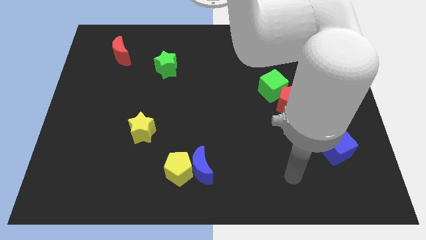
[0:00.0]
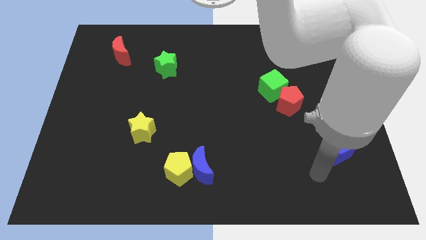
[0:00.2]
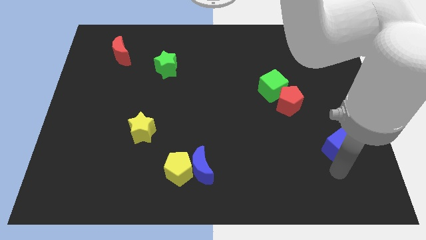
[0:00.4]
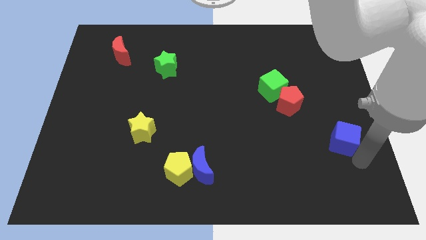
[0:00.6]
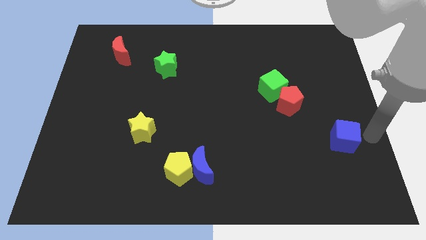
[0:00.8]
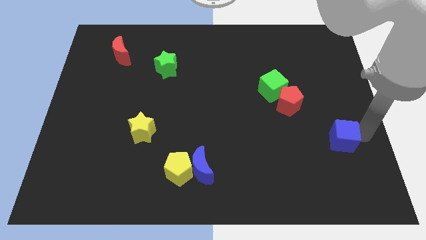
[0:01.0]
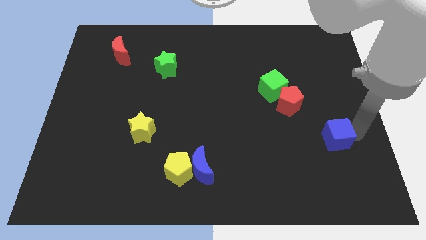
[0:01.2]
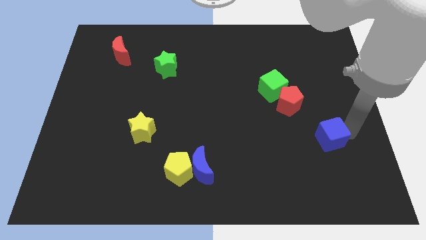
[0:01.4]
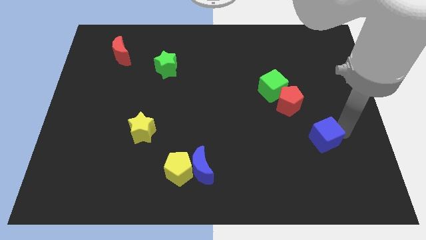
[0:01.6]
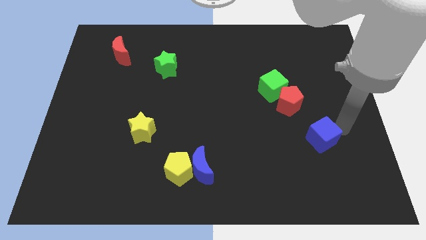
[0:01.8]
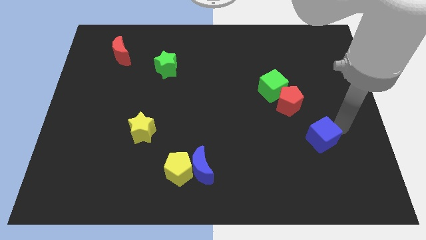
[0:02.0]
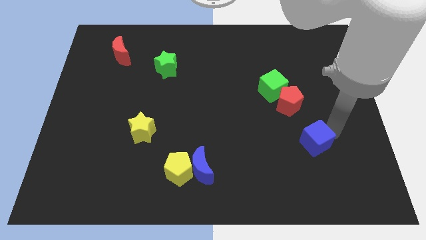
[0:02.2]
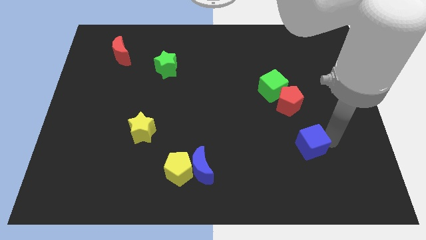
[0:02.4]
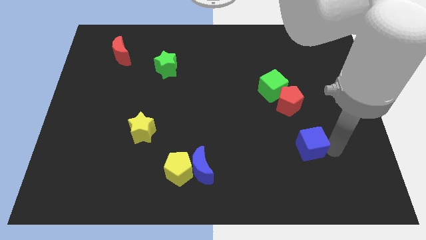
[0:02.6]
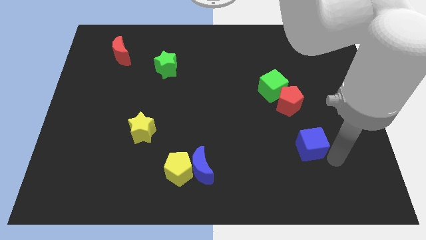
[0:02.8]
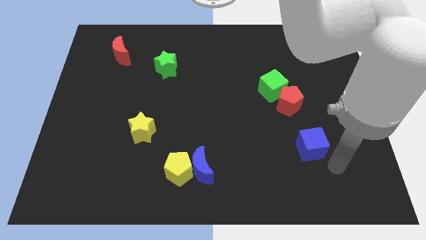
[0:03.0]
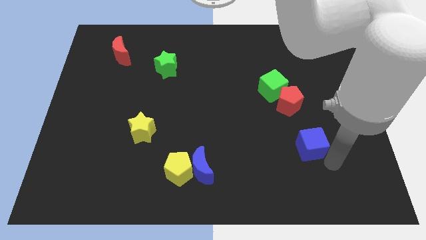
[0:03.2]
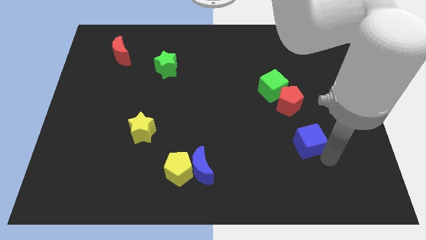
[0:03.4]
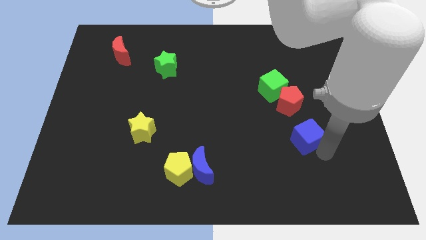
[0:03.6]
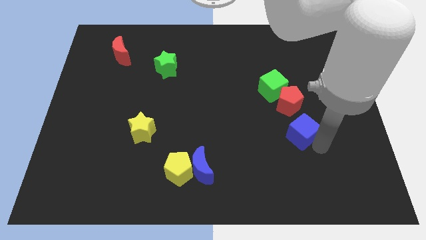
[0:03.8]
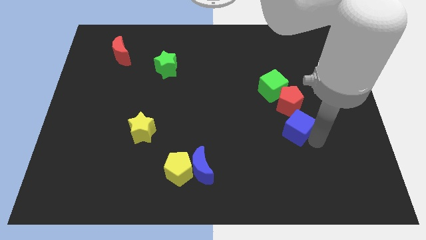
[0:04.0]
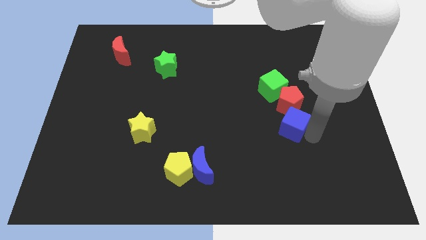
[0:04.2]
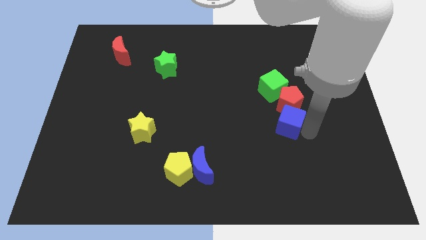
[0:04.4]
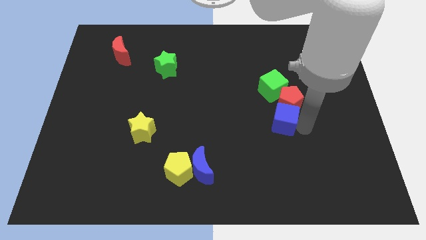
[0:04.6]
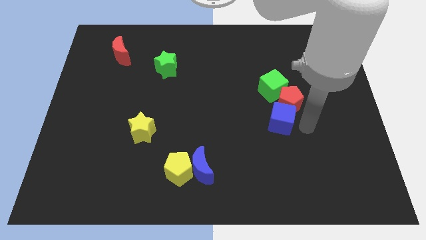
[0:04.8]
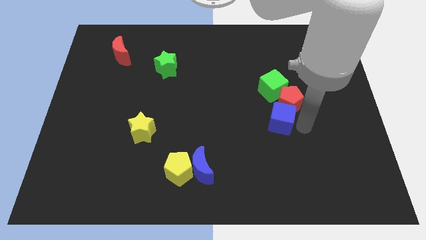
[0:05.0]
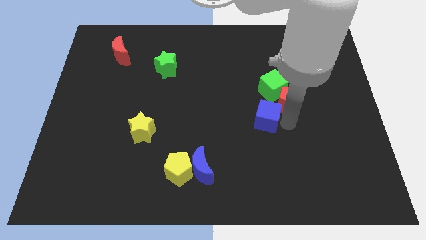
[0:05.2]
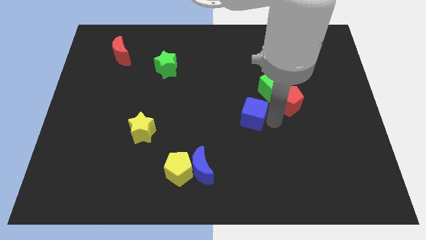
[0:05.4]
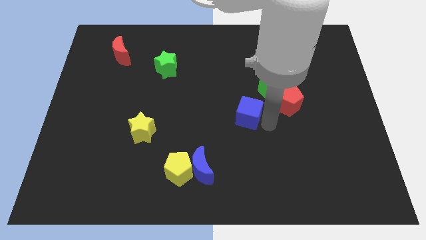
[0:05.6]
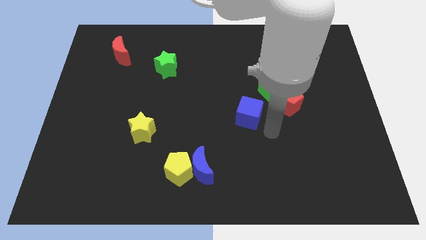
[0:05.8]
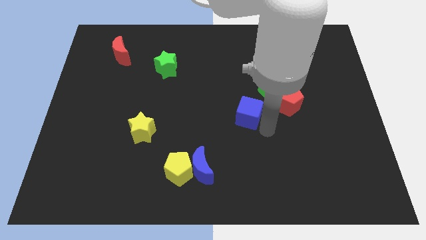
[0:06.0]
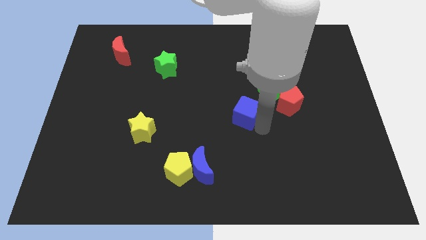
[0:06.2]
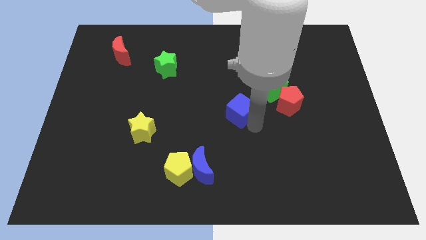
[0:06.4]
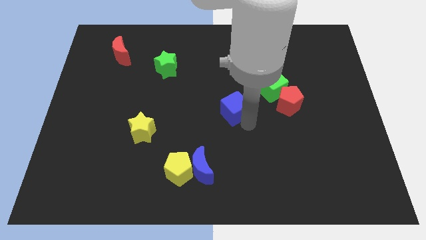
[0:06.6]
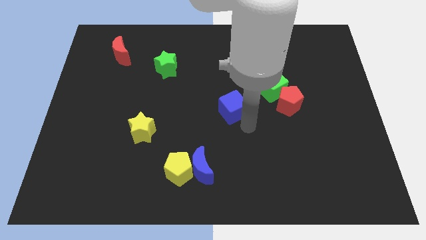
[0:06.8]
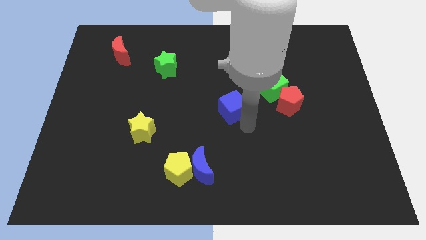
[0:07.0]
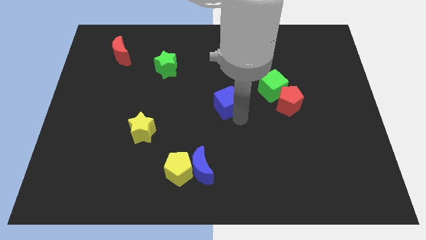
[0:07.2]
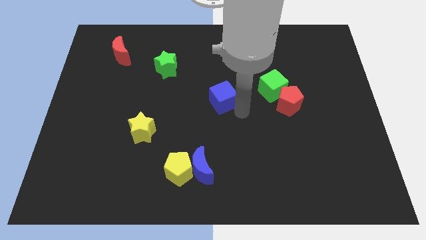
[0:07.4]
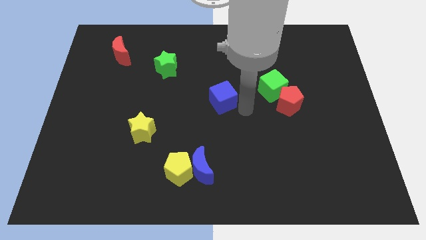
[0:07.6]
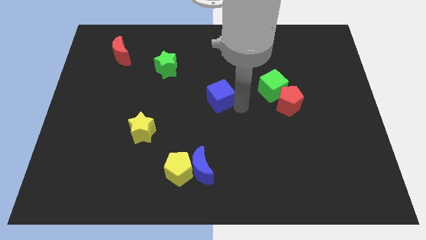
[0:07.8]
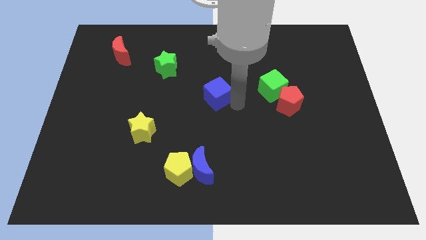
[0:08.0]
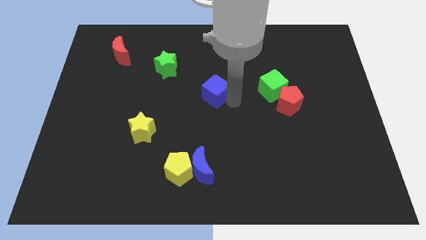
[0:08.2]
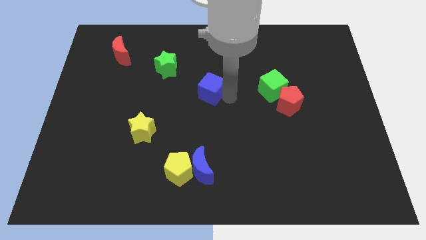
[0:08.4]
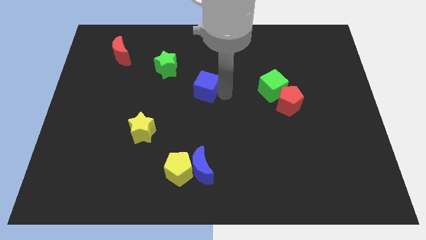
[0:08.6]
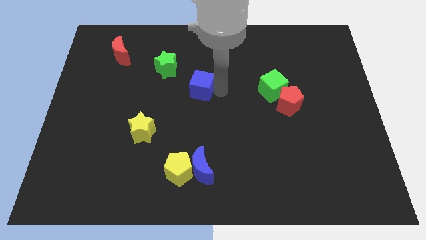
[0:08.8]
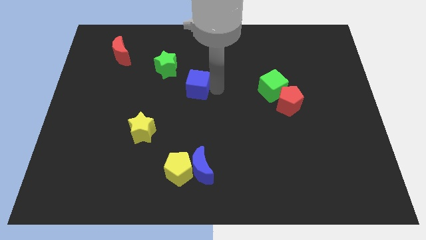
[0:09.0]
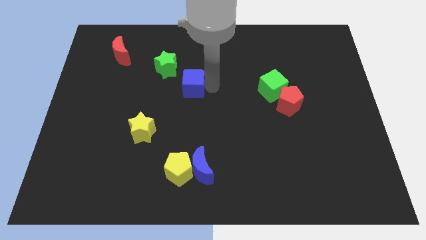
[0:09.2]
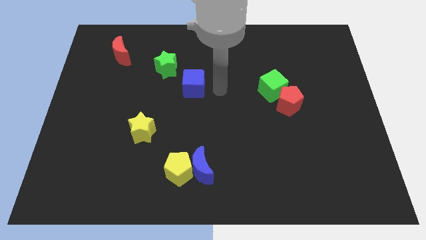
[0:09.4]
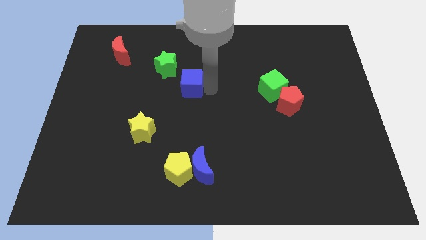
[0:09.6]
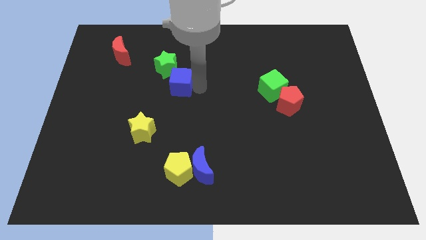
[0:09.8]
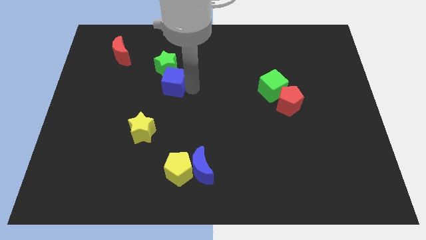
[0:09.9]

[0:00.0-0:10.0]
move the blue cube to the green star

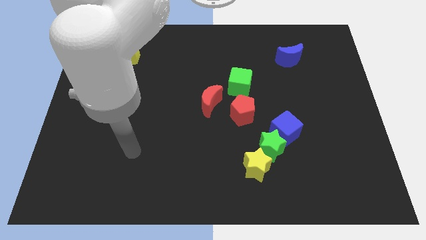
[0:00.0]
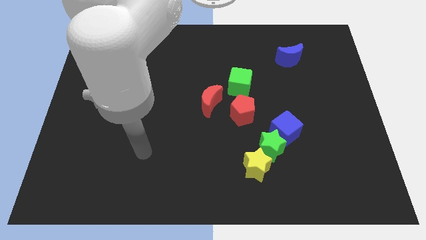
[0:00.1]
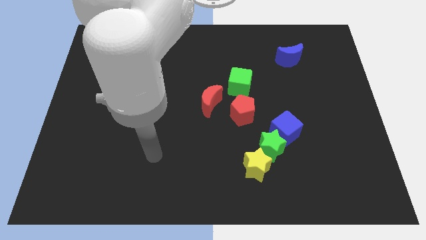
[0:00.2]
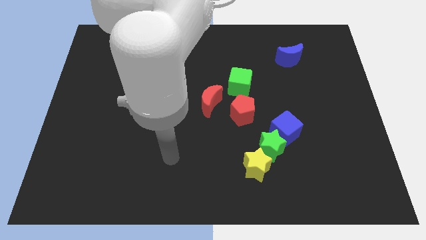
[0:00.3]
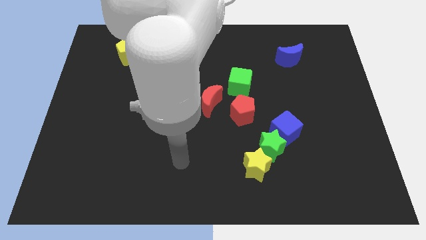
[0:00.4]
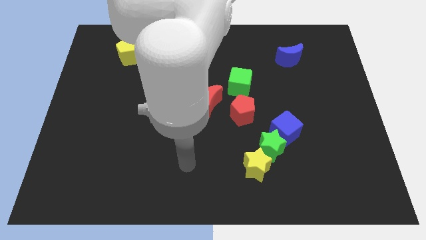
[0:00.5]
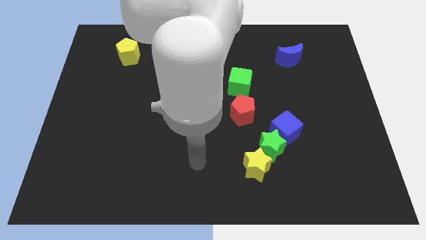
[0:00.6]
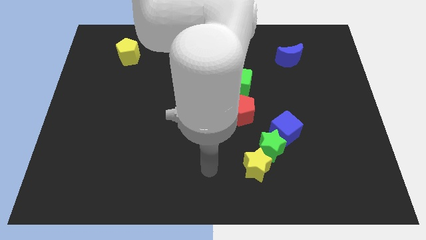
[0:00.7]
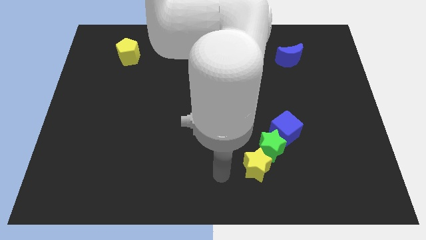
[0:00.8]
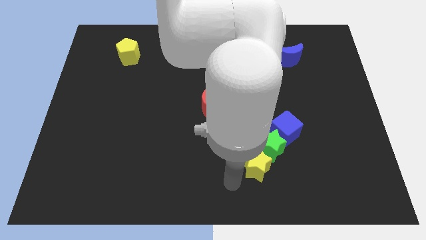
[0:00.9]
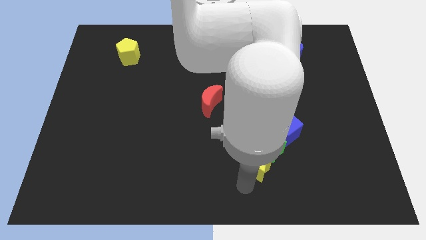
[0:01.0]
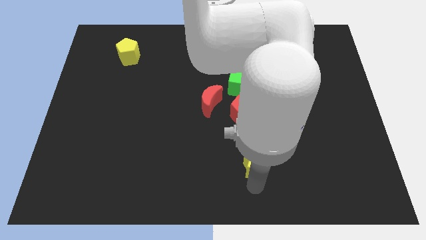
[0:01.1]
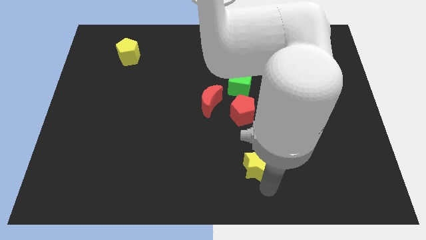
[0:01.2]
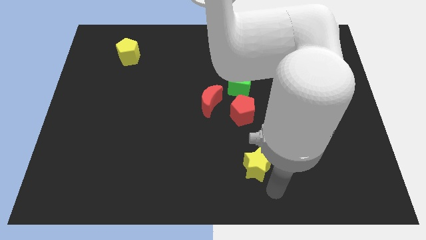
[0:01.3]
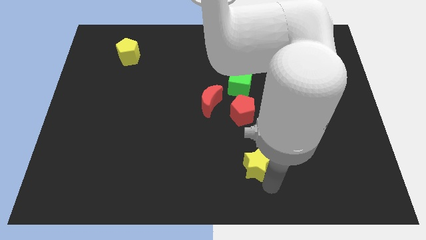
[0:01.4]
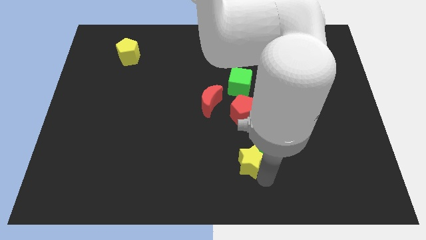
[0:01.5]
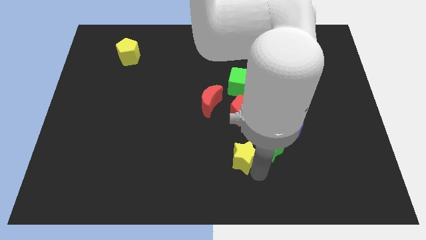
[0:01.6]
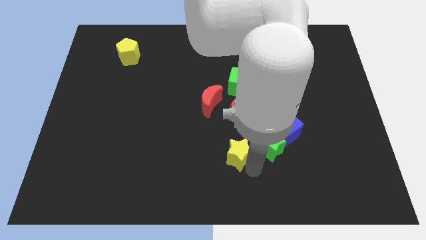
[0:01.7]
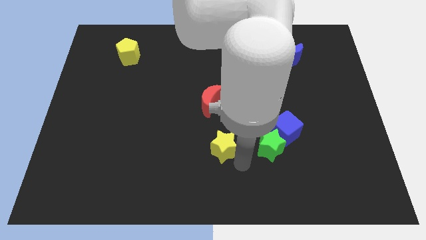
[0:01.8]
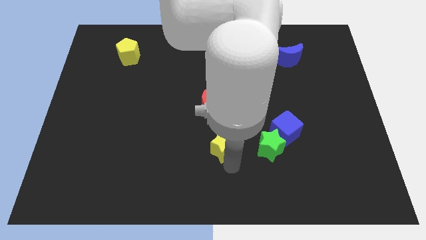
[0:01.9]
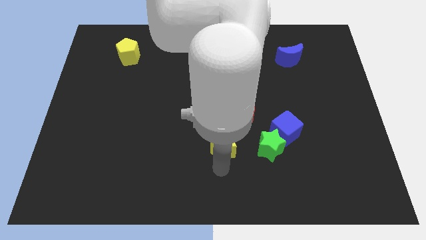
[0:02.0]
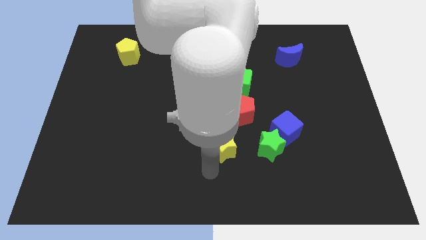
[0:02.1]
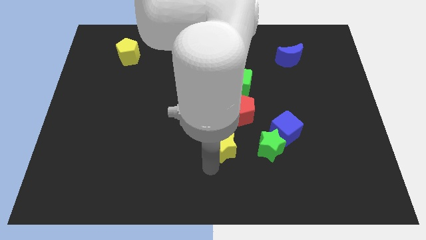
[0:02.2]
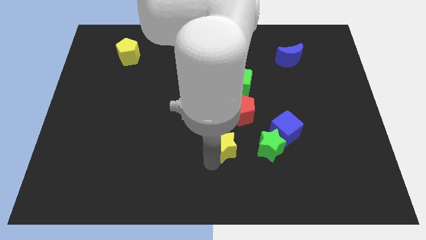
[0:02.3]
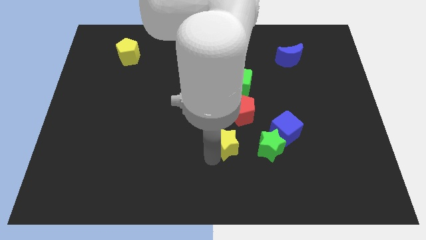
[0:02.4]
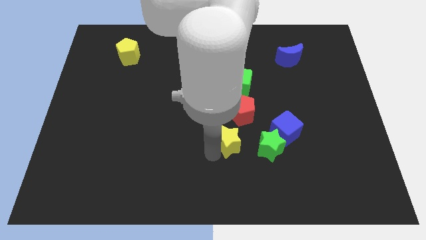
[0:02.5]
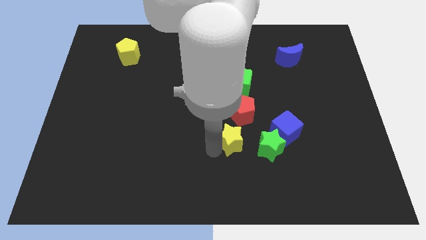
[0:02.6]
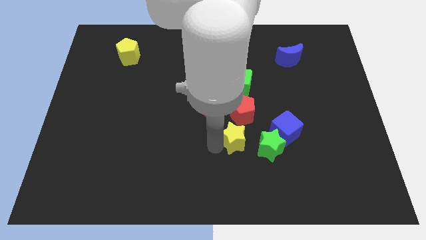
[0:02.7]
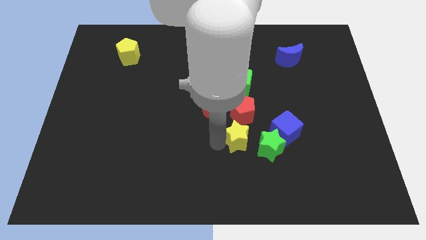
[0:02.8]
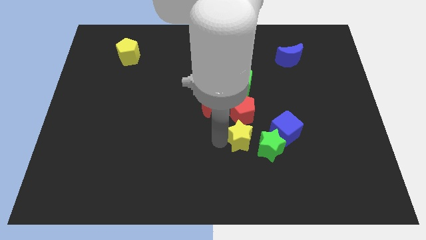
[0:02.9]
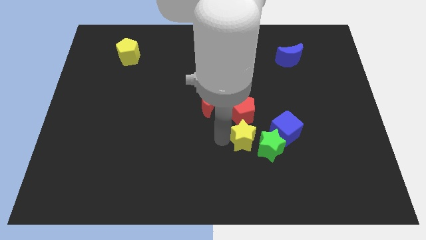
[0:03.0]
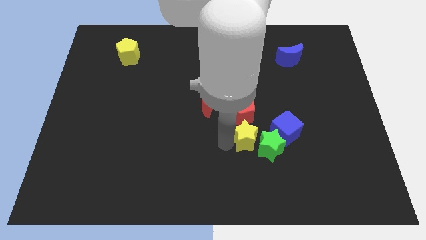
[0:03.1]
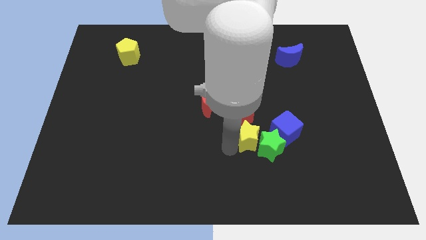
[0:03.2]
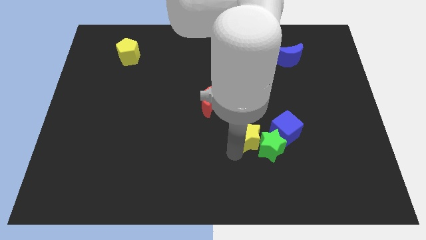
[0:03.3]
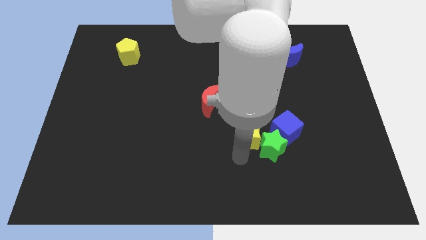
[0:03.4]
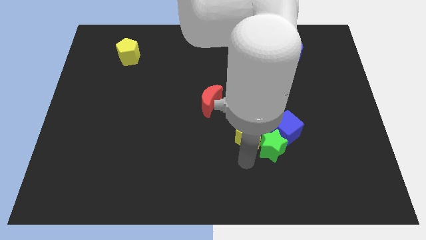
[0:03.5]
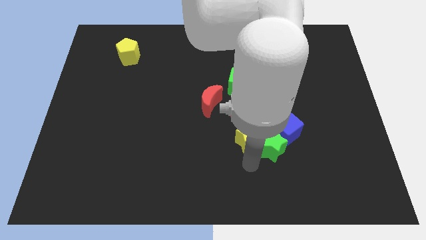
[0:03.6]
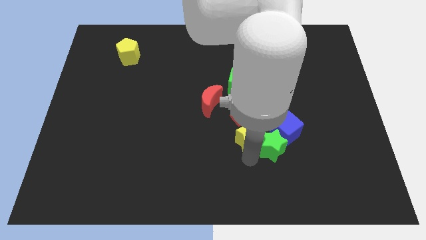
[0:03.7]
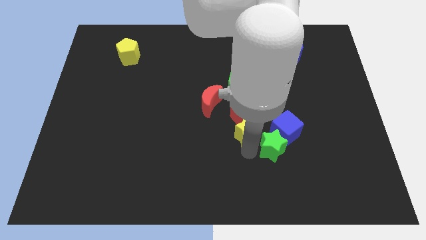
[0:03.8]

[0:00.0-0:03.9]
slide the yellow star to the red pentagon
